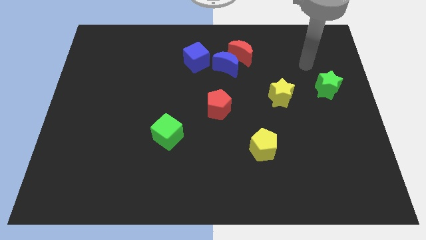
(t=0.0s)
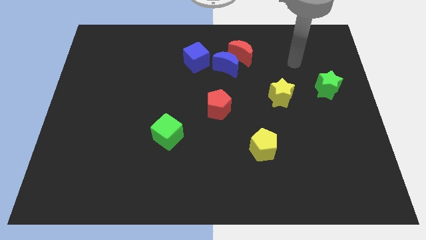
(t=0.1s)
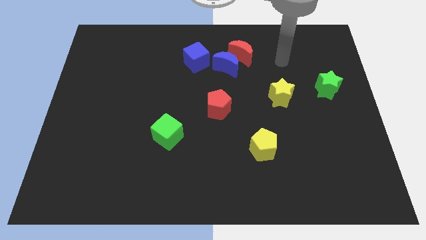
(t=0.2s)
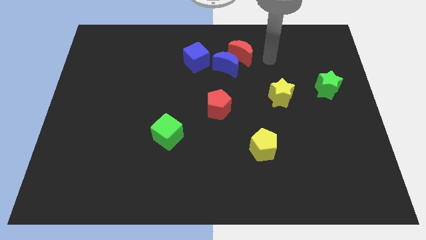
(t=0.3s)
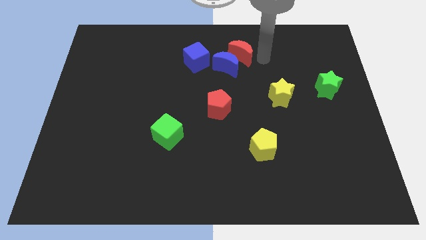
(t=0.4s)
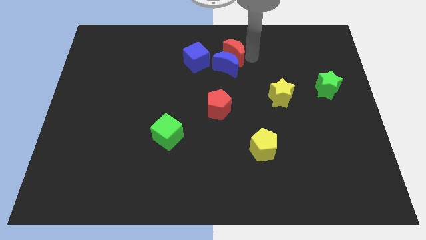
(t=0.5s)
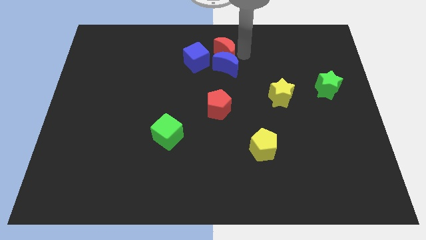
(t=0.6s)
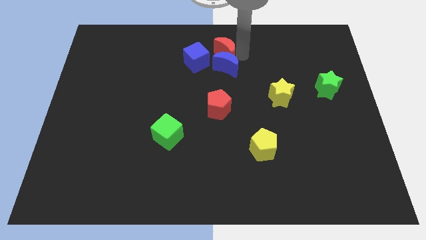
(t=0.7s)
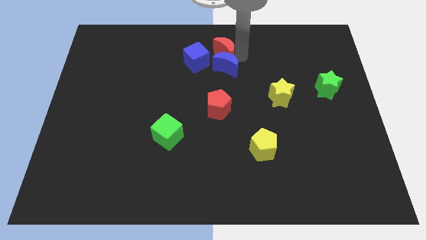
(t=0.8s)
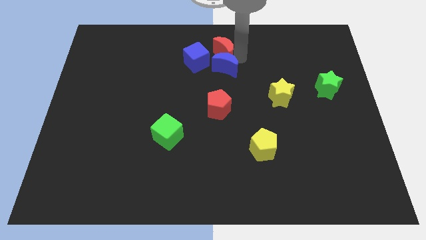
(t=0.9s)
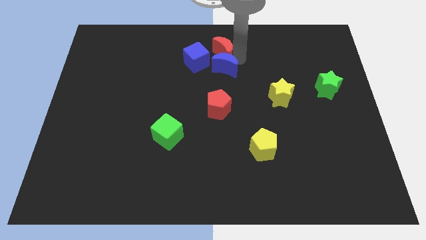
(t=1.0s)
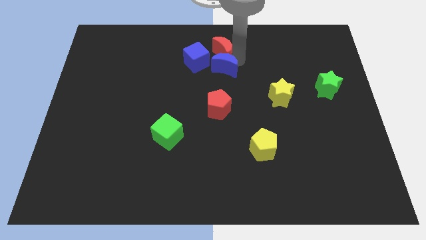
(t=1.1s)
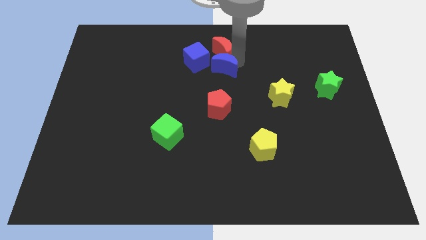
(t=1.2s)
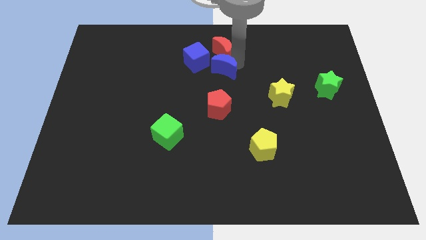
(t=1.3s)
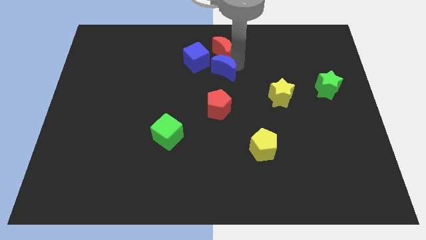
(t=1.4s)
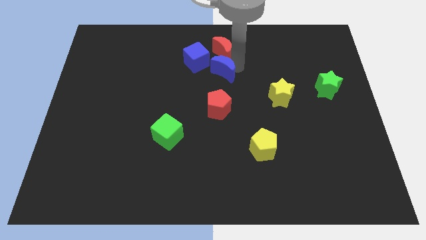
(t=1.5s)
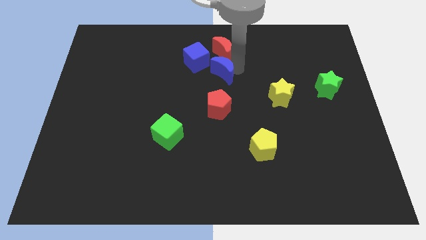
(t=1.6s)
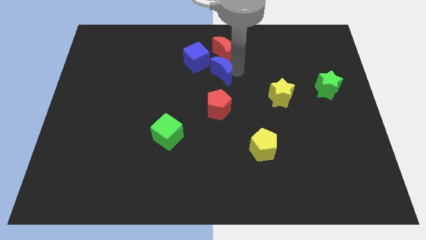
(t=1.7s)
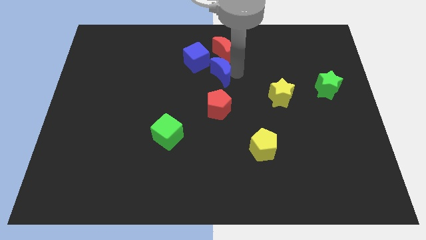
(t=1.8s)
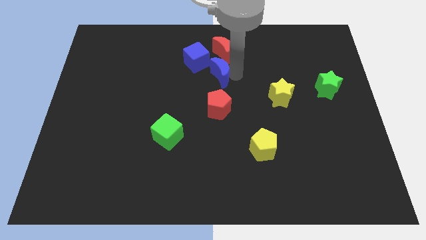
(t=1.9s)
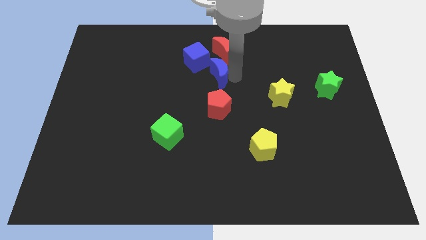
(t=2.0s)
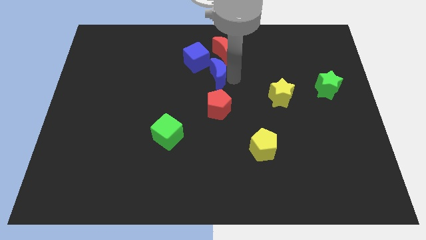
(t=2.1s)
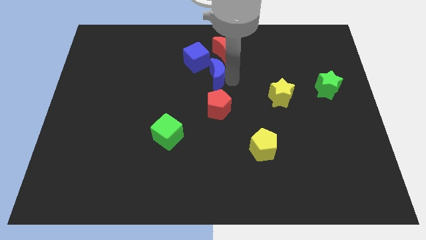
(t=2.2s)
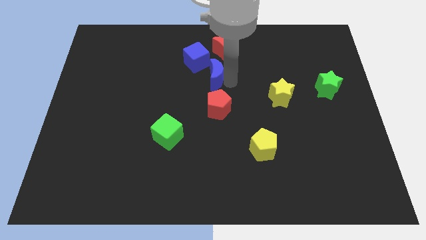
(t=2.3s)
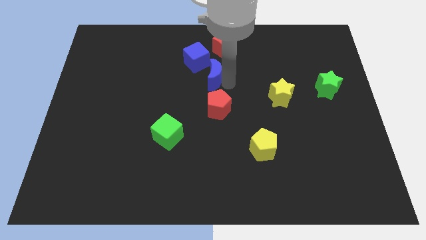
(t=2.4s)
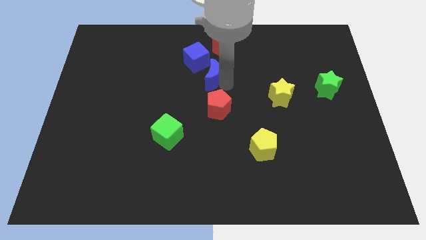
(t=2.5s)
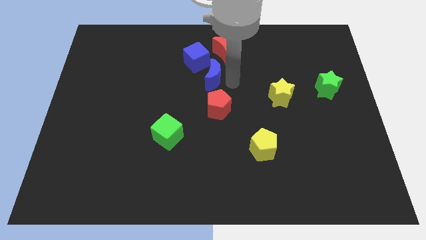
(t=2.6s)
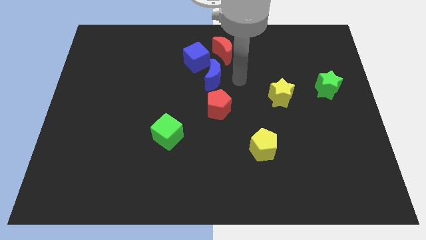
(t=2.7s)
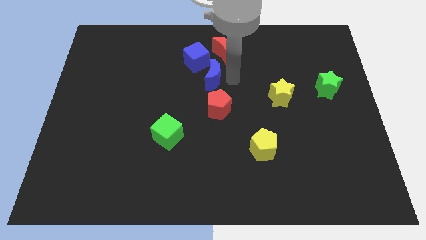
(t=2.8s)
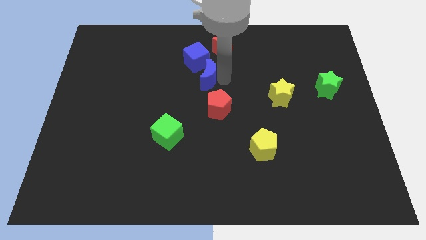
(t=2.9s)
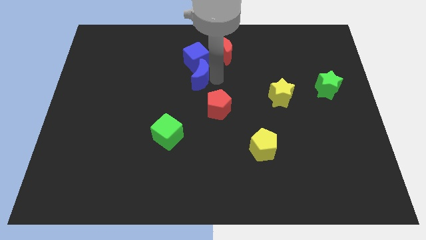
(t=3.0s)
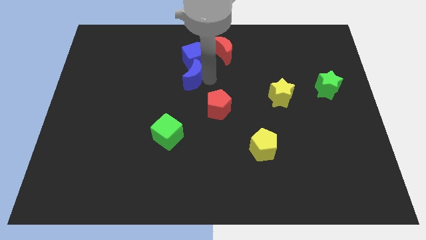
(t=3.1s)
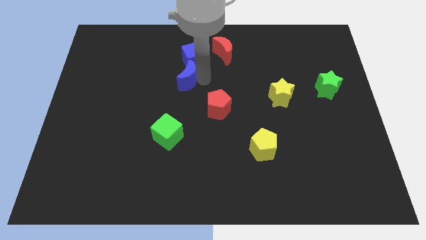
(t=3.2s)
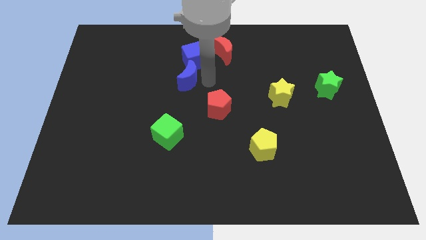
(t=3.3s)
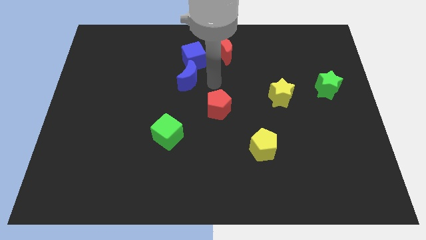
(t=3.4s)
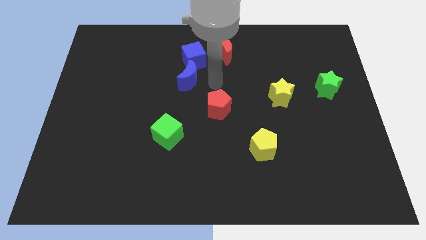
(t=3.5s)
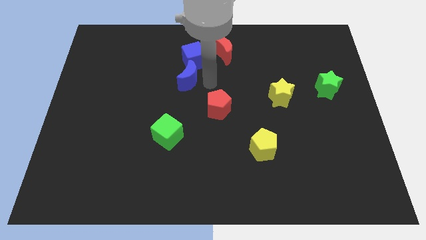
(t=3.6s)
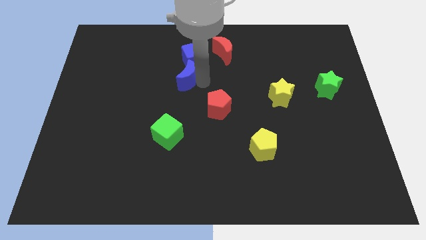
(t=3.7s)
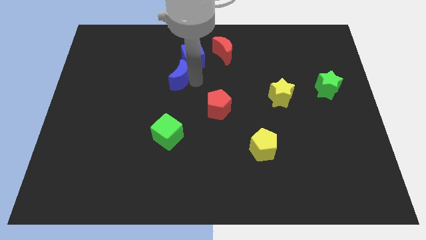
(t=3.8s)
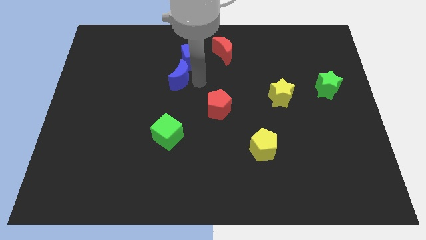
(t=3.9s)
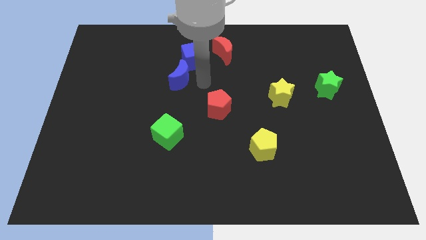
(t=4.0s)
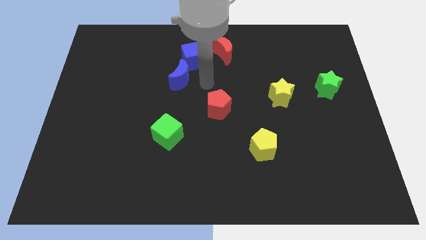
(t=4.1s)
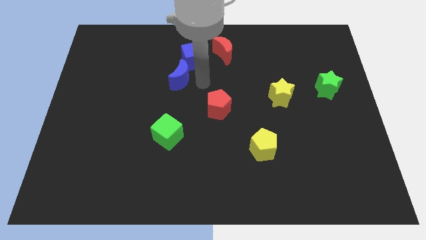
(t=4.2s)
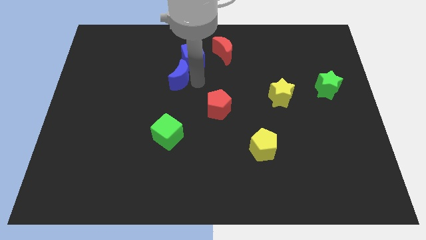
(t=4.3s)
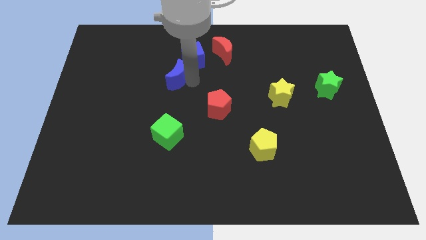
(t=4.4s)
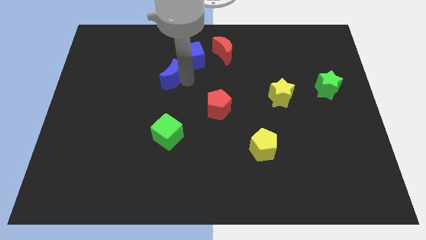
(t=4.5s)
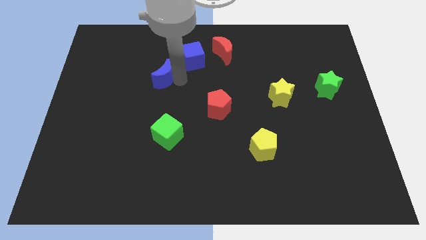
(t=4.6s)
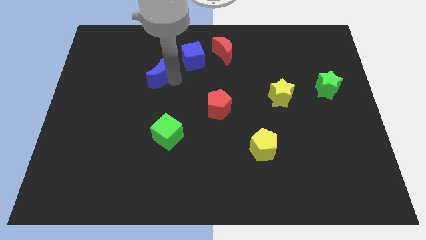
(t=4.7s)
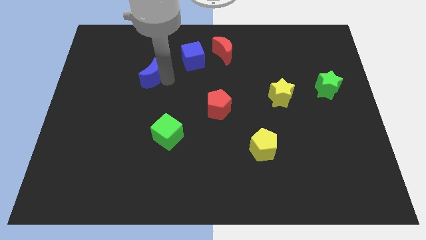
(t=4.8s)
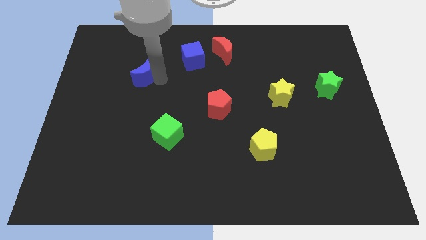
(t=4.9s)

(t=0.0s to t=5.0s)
move the blue moon left

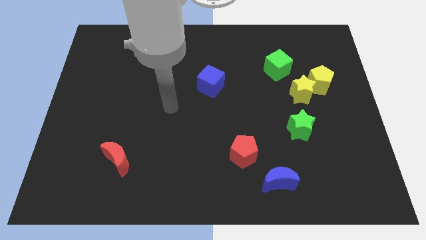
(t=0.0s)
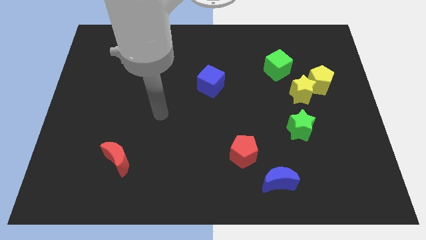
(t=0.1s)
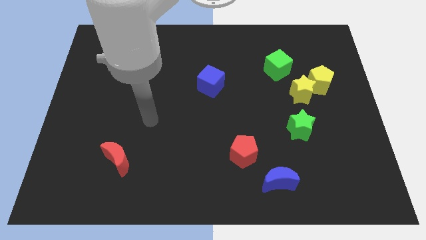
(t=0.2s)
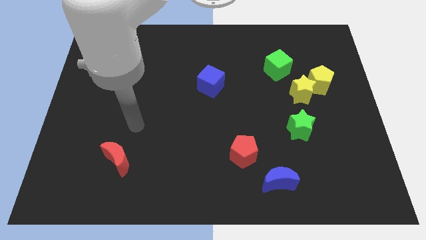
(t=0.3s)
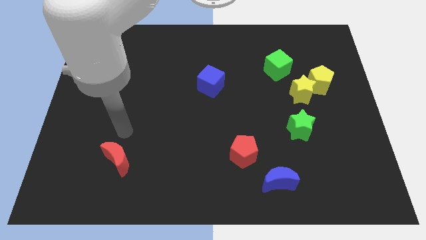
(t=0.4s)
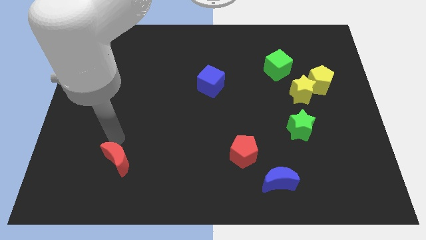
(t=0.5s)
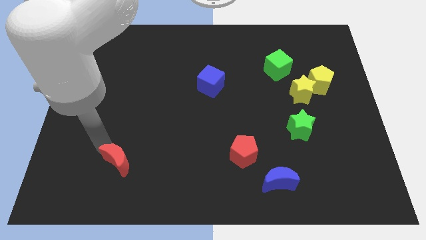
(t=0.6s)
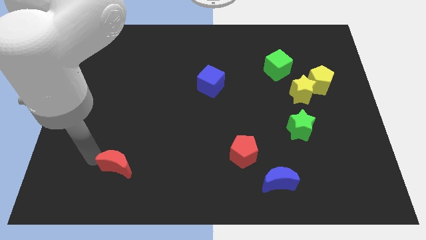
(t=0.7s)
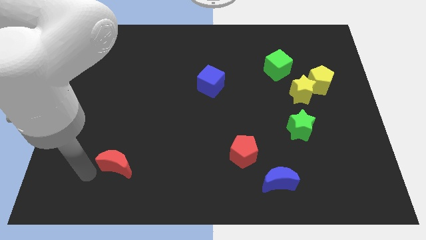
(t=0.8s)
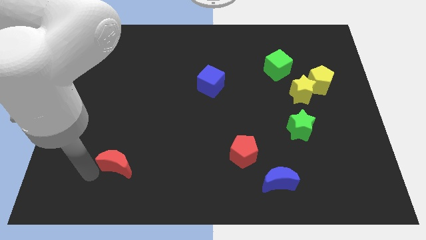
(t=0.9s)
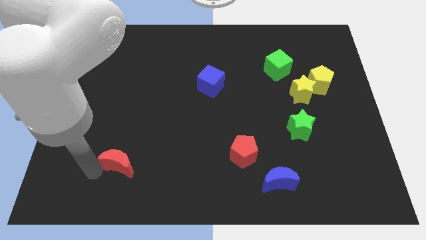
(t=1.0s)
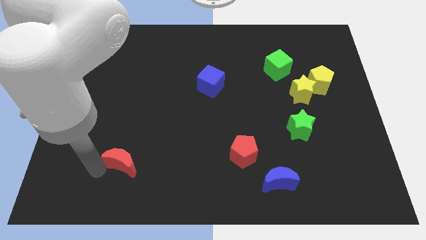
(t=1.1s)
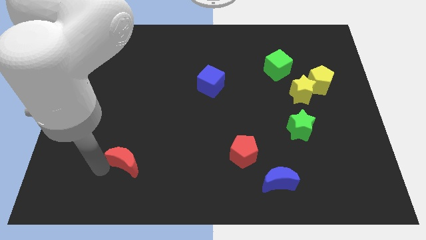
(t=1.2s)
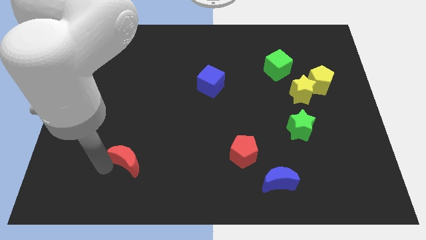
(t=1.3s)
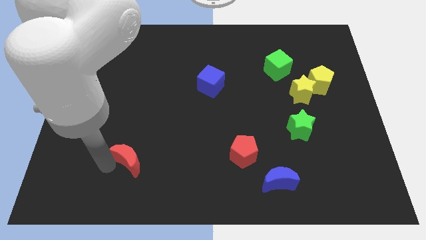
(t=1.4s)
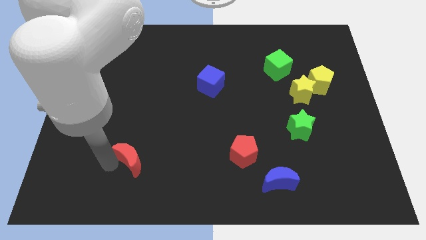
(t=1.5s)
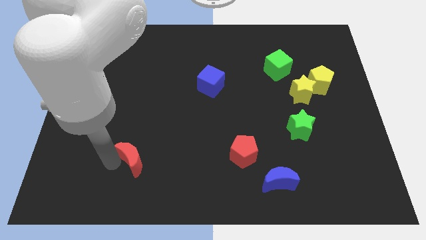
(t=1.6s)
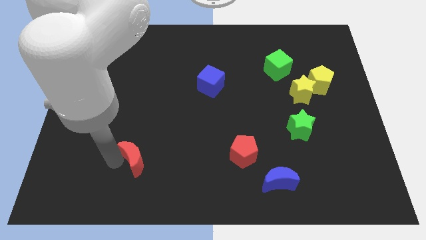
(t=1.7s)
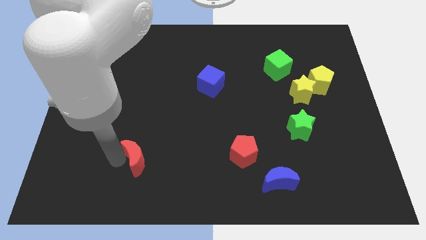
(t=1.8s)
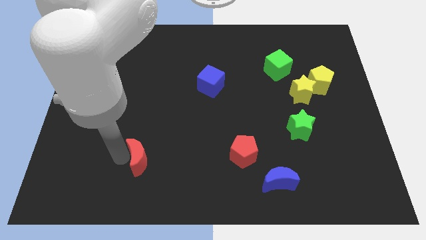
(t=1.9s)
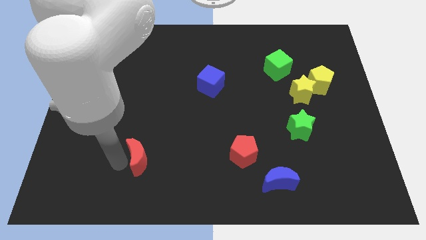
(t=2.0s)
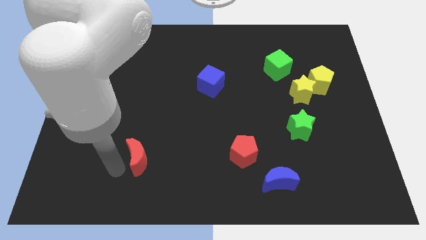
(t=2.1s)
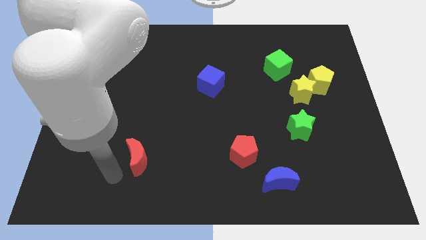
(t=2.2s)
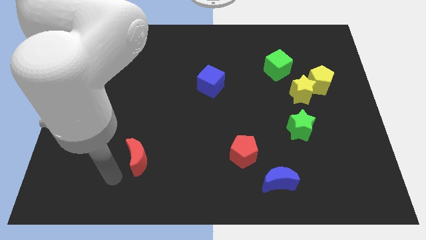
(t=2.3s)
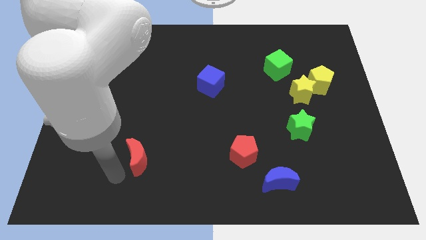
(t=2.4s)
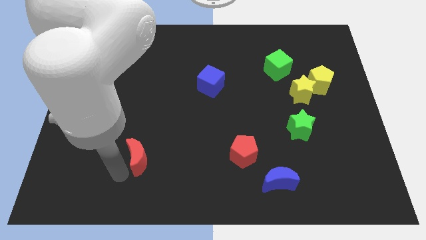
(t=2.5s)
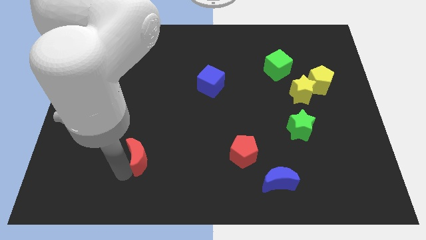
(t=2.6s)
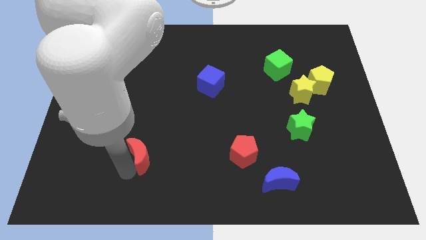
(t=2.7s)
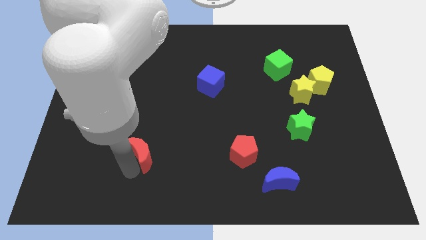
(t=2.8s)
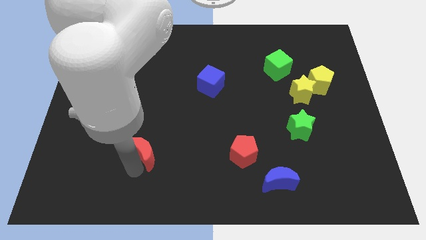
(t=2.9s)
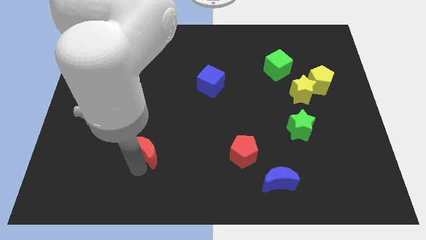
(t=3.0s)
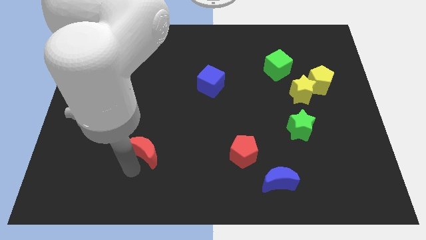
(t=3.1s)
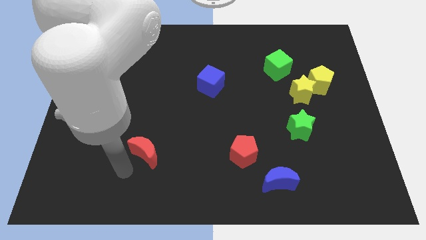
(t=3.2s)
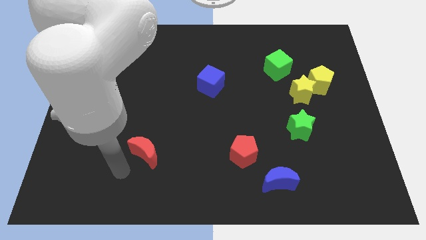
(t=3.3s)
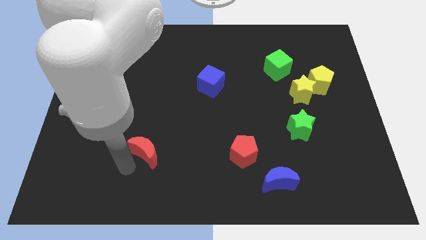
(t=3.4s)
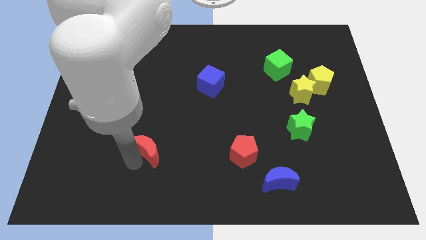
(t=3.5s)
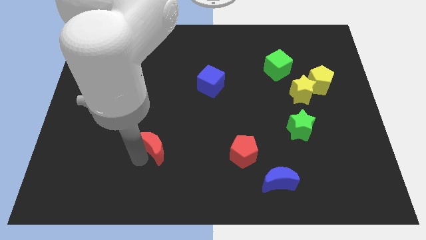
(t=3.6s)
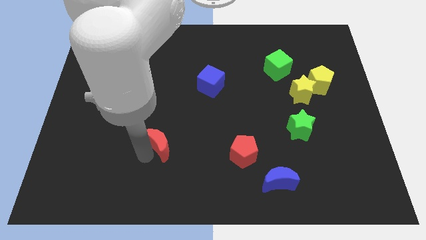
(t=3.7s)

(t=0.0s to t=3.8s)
slide the red moon upwards and then right a bit
